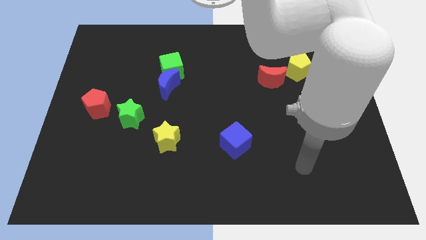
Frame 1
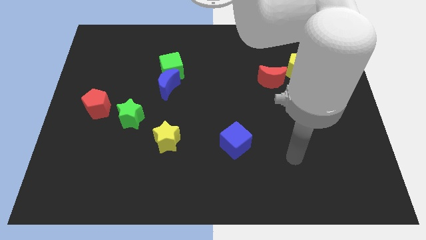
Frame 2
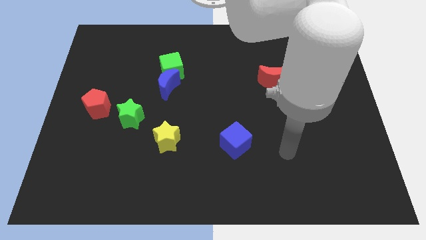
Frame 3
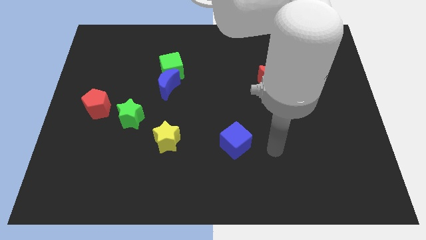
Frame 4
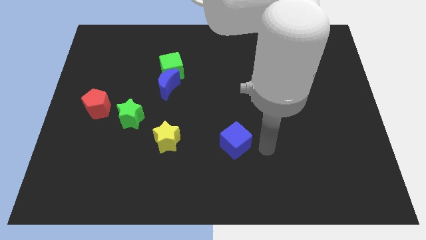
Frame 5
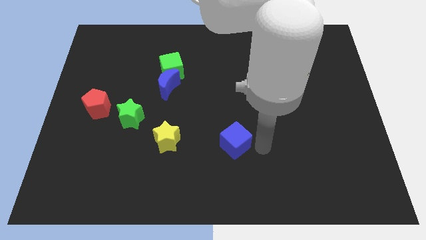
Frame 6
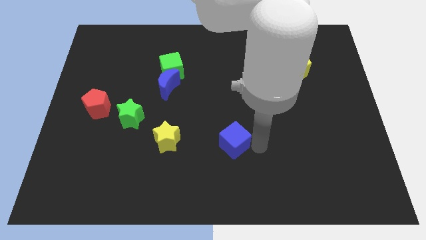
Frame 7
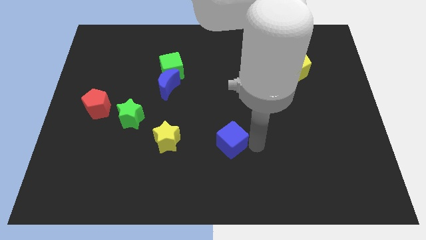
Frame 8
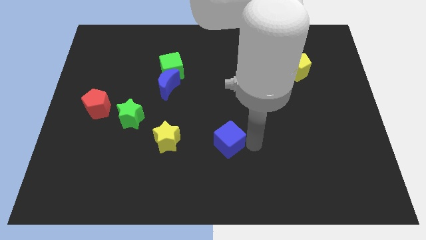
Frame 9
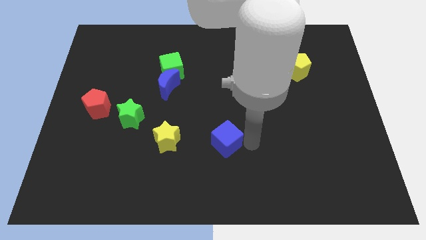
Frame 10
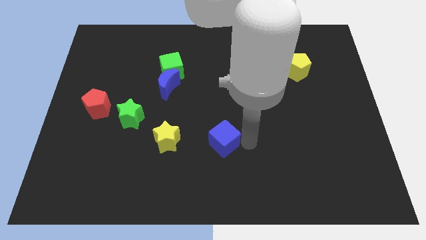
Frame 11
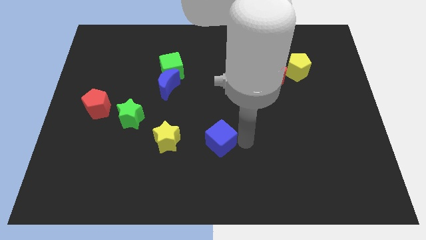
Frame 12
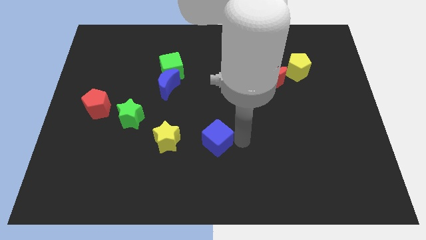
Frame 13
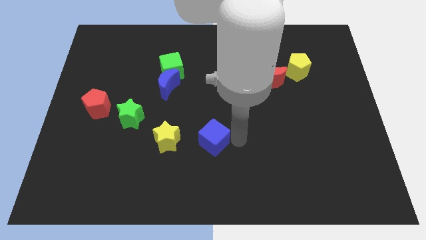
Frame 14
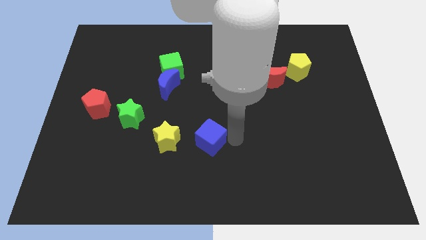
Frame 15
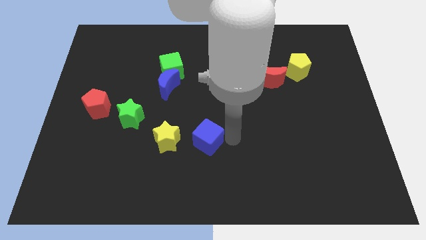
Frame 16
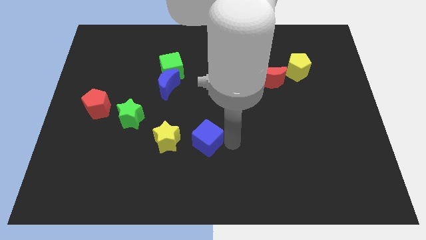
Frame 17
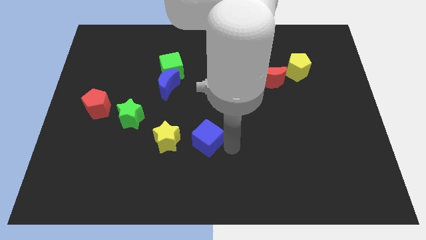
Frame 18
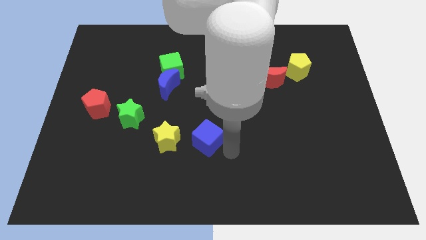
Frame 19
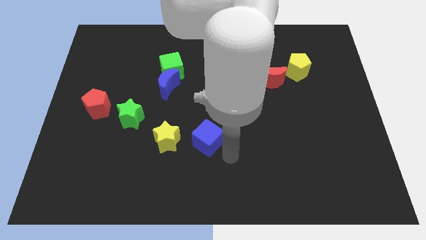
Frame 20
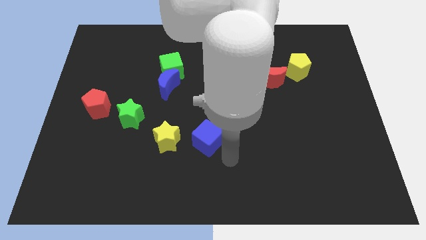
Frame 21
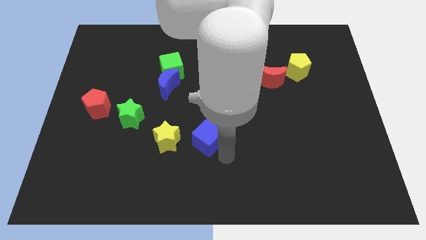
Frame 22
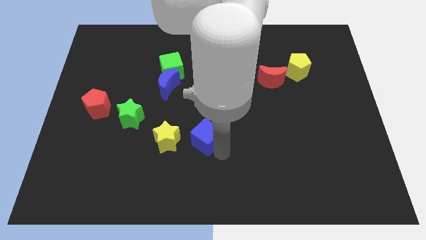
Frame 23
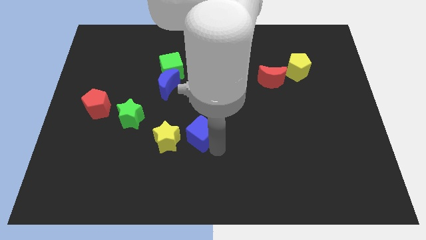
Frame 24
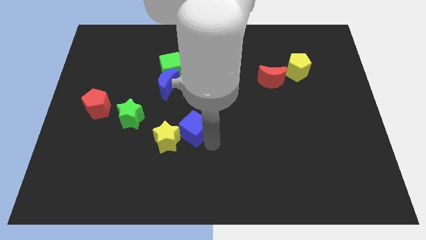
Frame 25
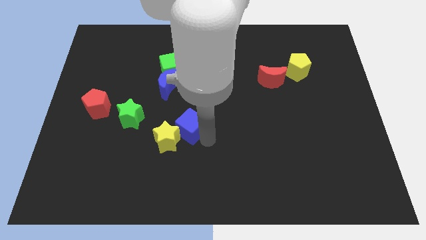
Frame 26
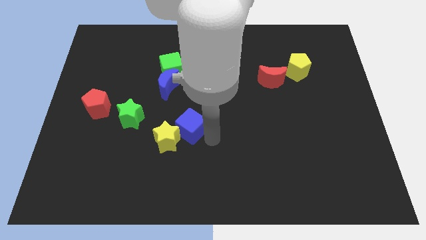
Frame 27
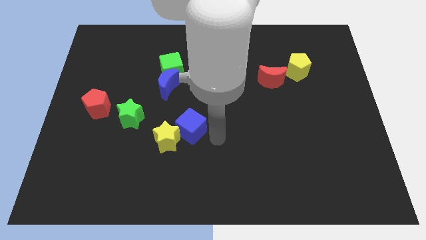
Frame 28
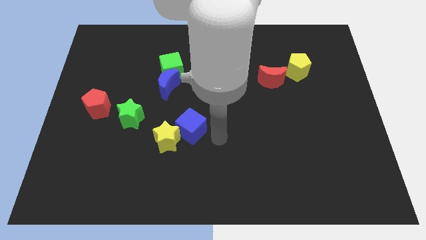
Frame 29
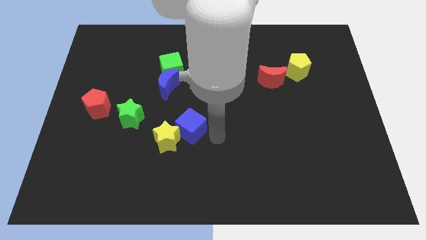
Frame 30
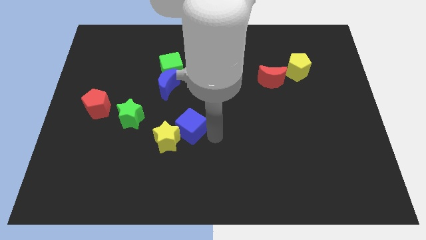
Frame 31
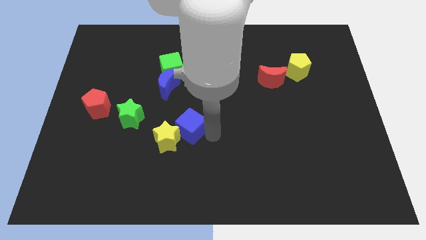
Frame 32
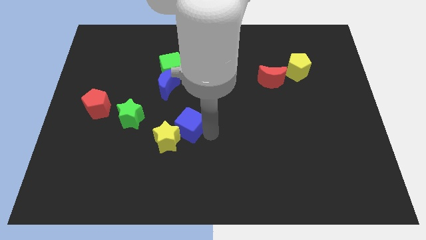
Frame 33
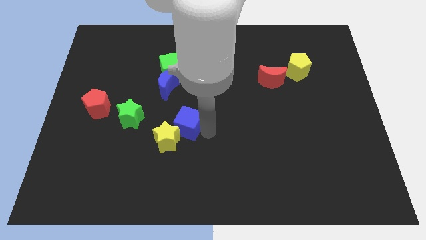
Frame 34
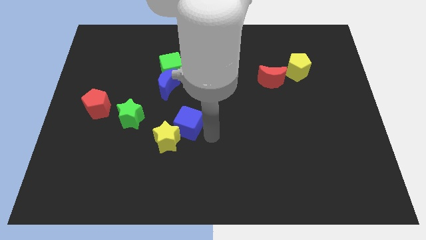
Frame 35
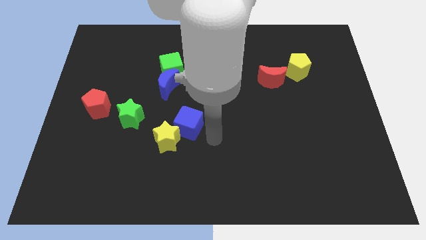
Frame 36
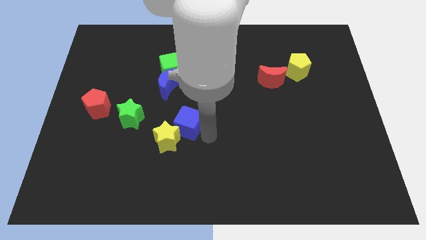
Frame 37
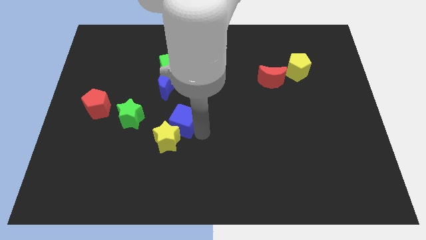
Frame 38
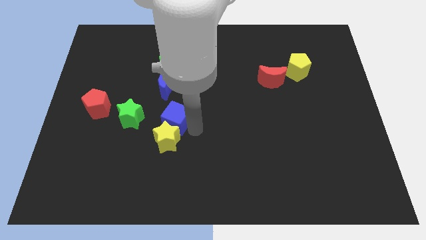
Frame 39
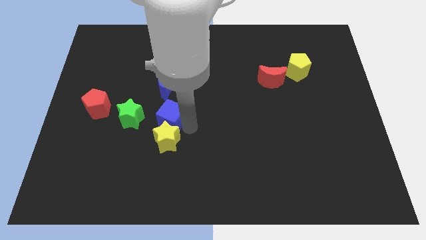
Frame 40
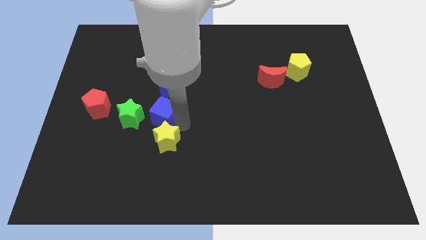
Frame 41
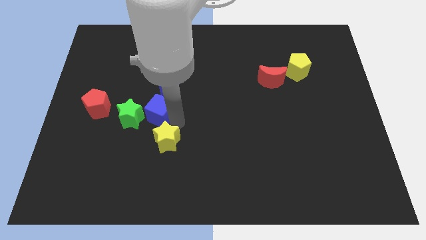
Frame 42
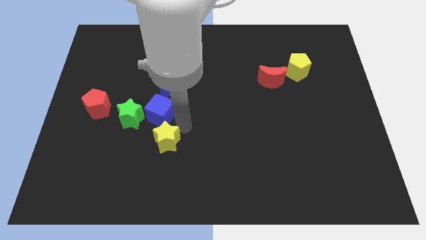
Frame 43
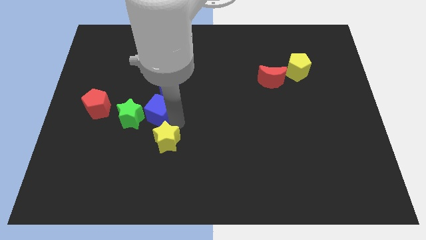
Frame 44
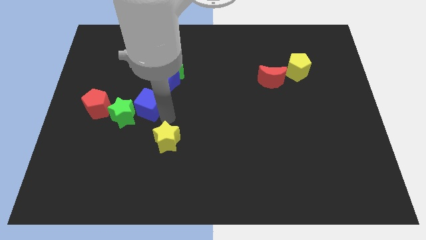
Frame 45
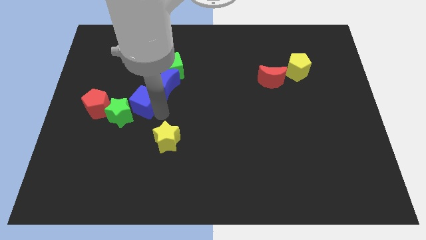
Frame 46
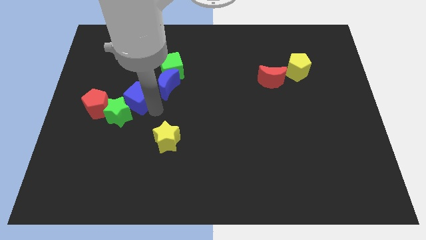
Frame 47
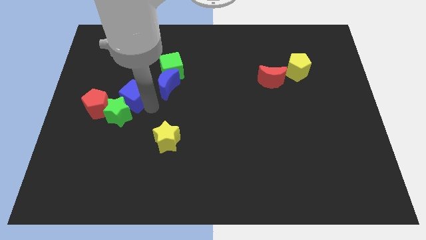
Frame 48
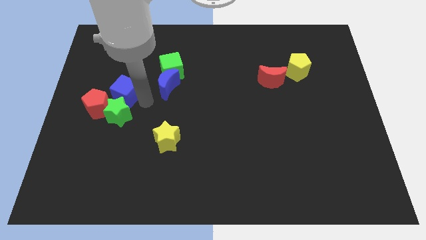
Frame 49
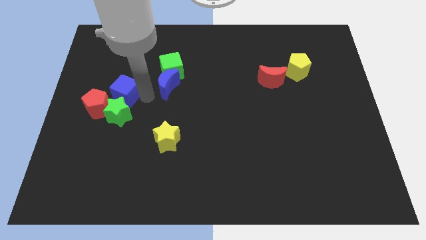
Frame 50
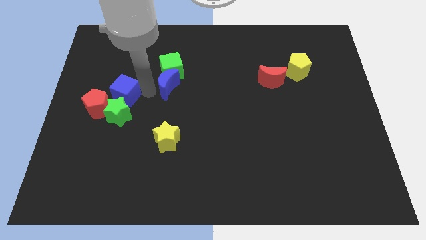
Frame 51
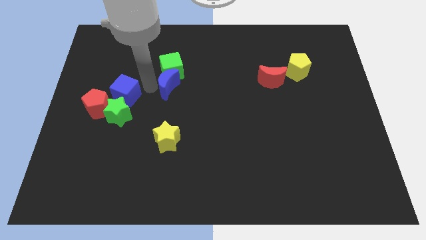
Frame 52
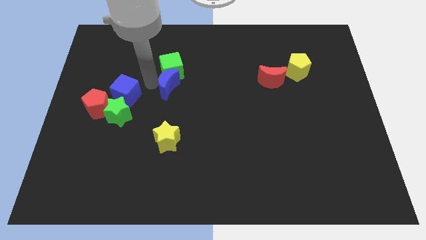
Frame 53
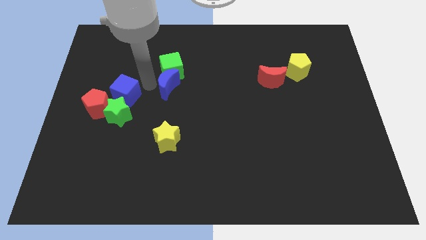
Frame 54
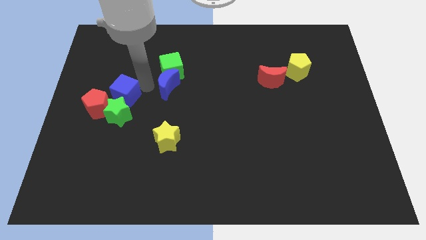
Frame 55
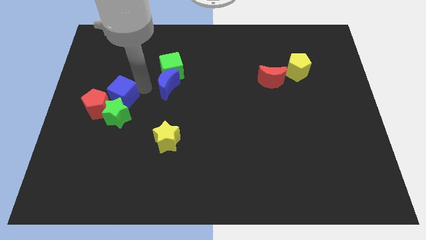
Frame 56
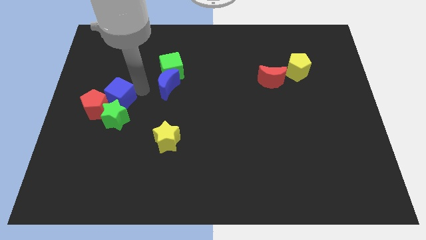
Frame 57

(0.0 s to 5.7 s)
push the blue cube to the red pentagon

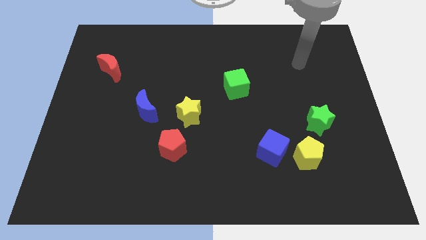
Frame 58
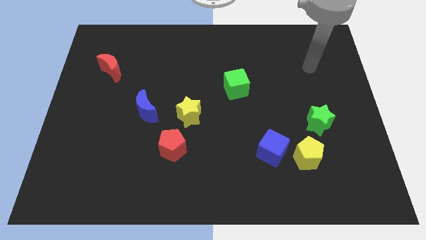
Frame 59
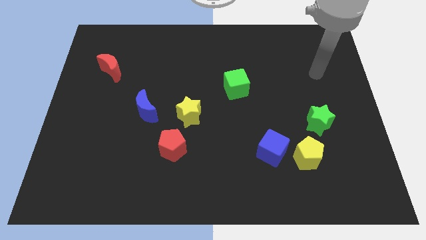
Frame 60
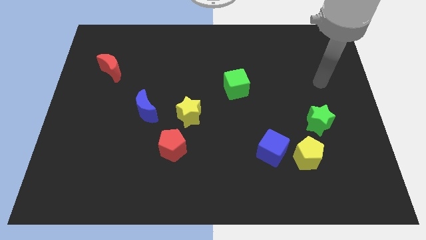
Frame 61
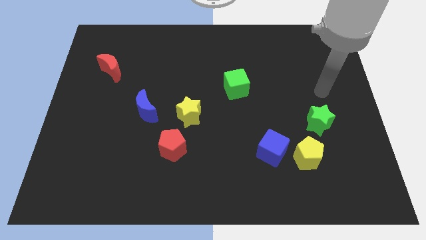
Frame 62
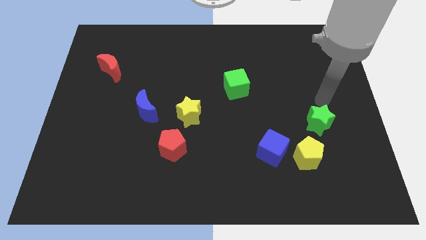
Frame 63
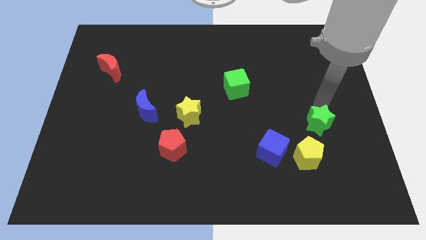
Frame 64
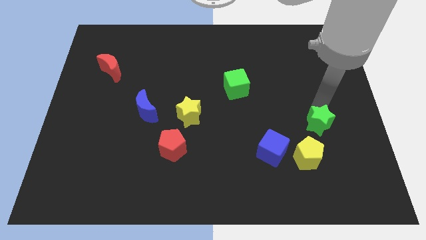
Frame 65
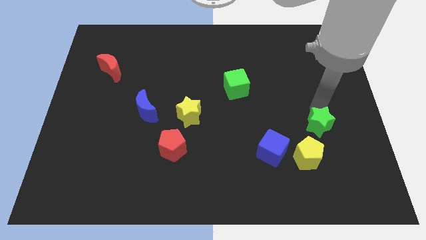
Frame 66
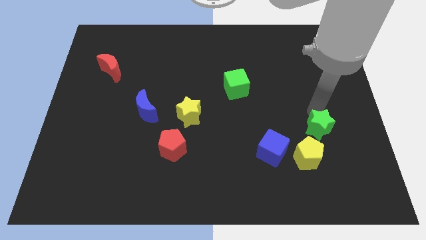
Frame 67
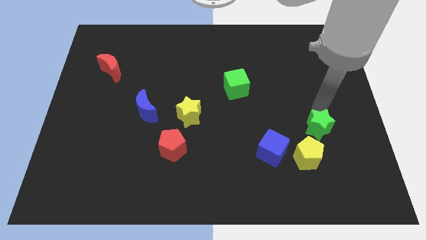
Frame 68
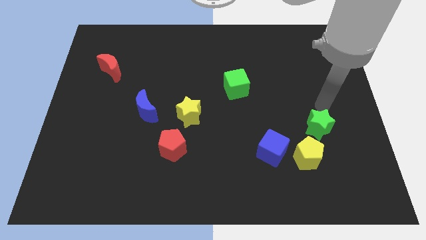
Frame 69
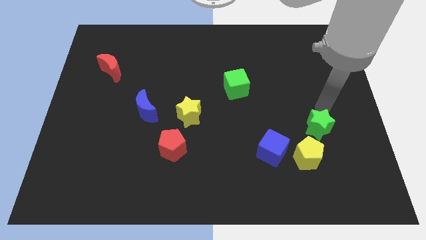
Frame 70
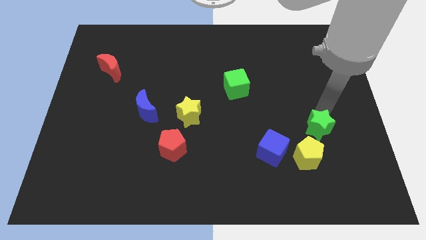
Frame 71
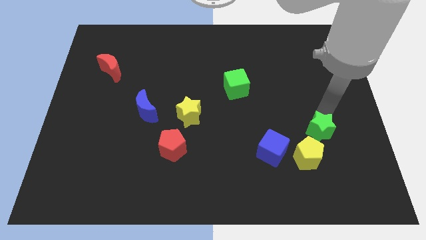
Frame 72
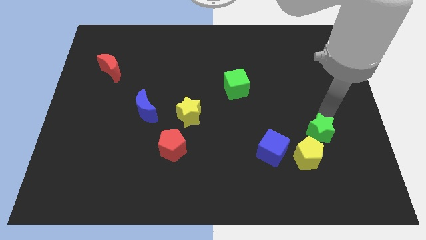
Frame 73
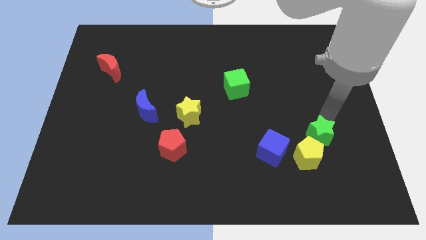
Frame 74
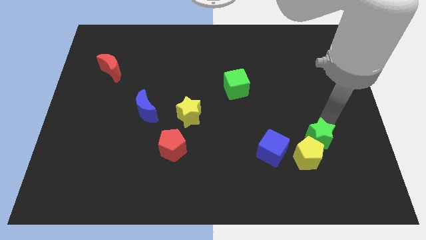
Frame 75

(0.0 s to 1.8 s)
move the green star close to the yellow pentagon
